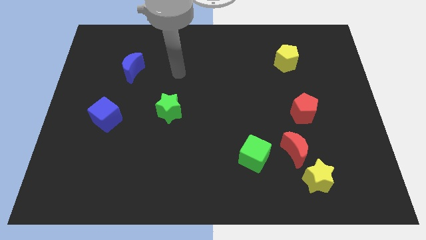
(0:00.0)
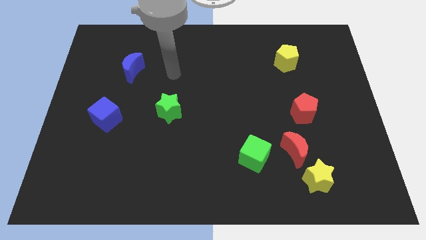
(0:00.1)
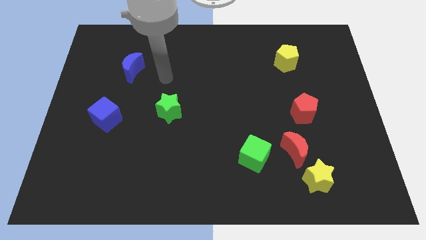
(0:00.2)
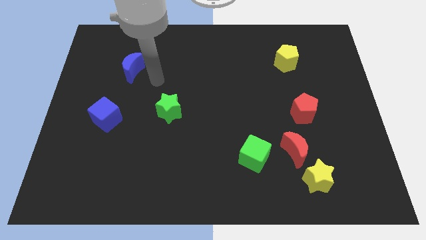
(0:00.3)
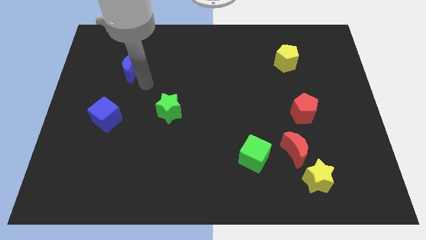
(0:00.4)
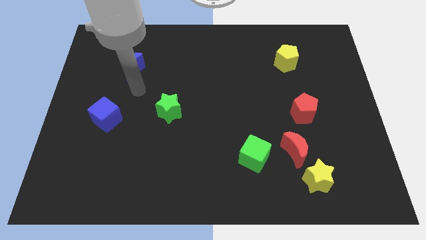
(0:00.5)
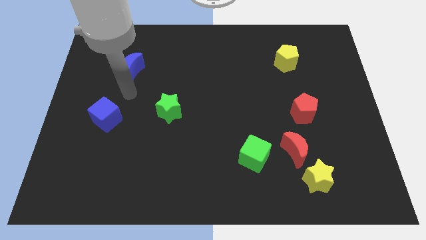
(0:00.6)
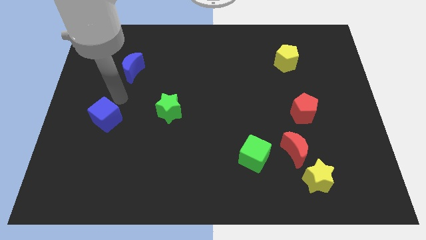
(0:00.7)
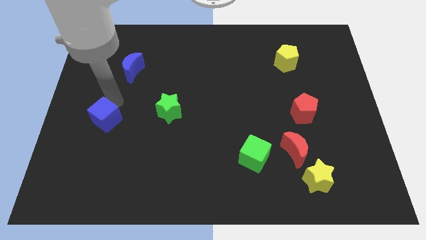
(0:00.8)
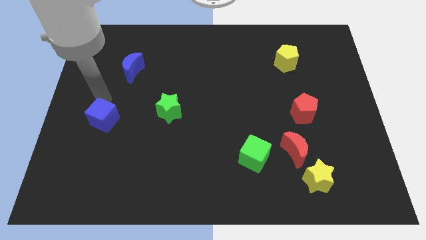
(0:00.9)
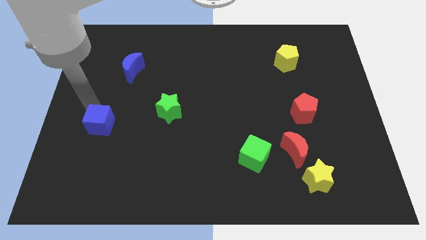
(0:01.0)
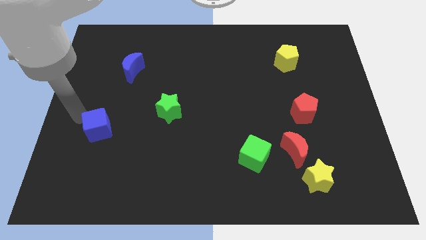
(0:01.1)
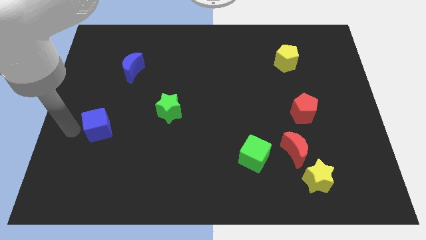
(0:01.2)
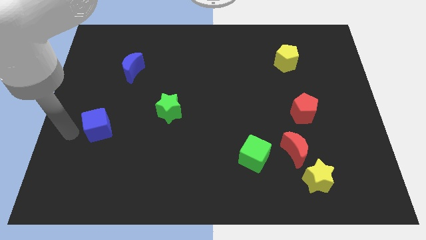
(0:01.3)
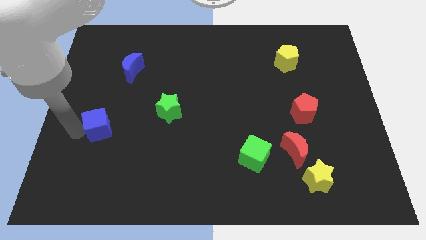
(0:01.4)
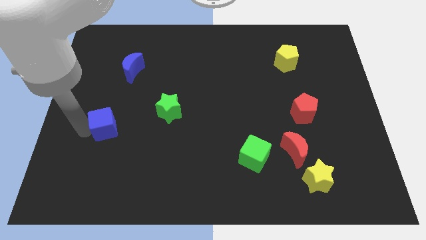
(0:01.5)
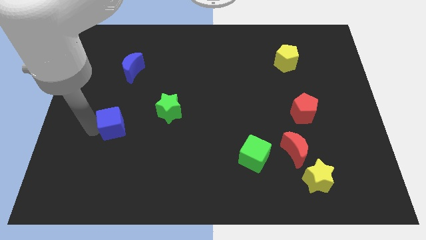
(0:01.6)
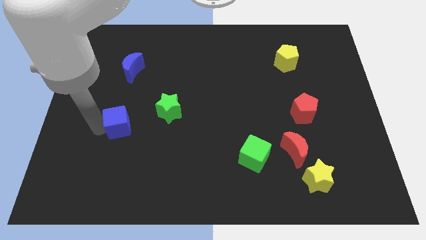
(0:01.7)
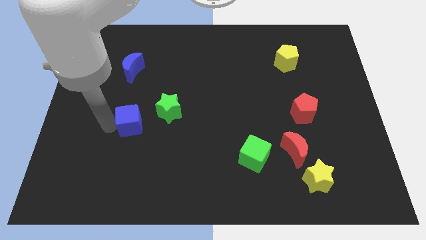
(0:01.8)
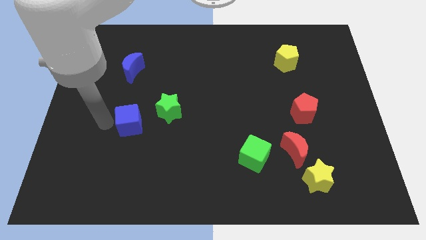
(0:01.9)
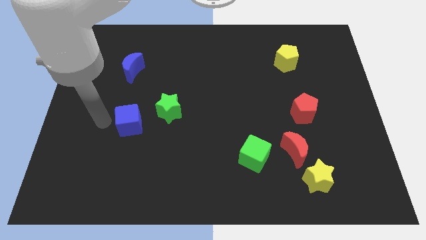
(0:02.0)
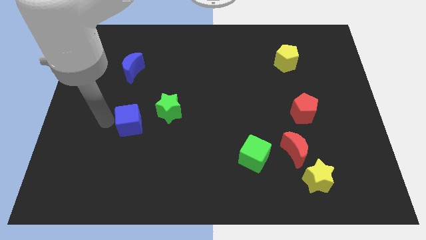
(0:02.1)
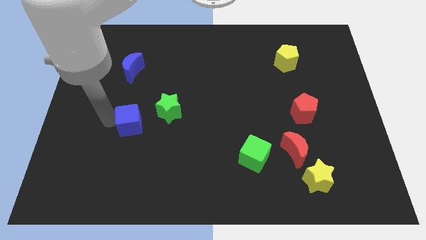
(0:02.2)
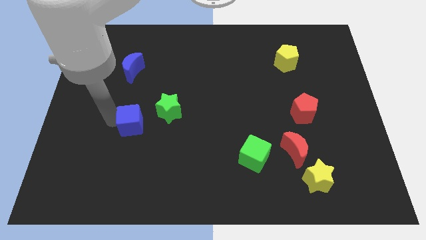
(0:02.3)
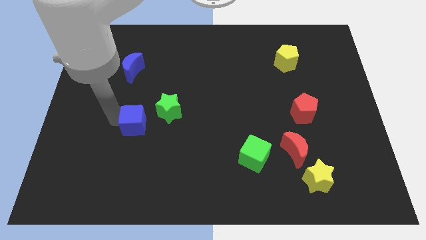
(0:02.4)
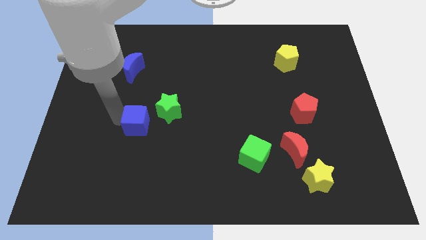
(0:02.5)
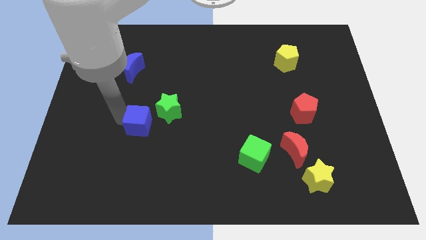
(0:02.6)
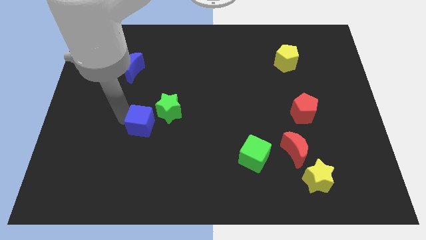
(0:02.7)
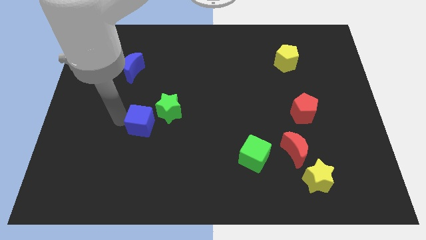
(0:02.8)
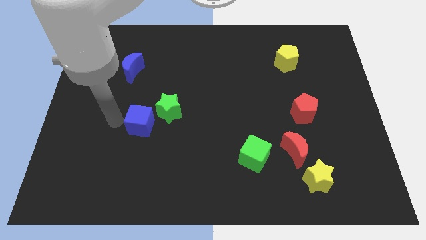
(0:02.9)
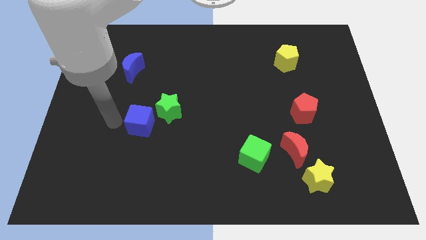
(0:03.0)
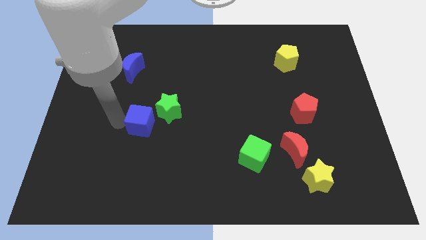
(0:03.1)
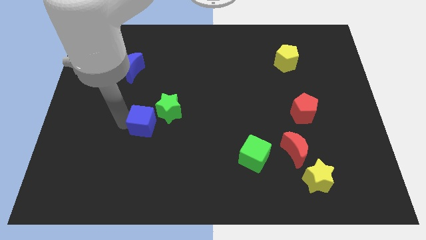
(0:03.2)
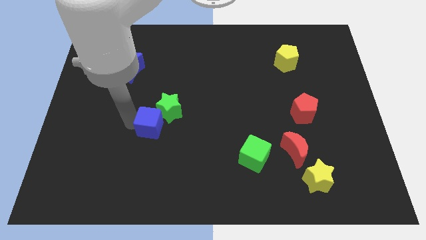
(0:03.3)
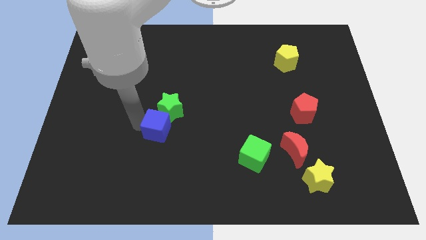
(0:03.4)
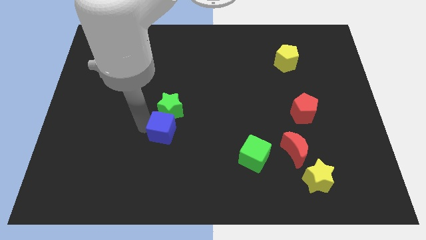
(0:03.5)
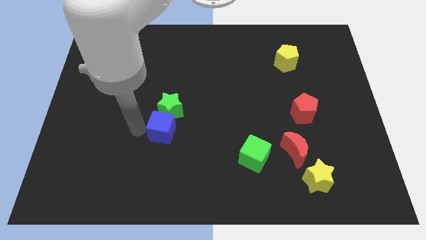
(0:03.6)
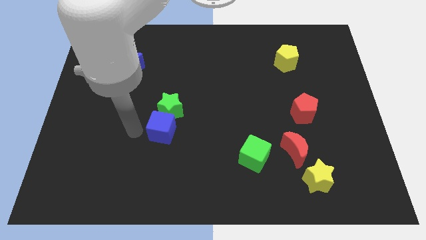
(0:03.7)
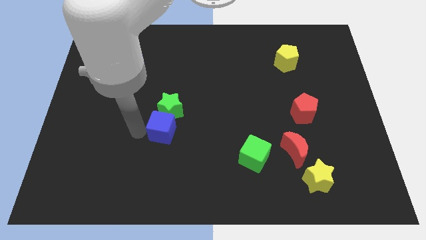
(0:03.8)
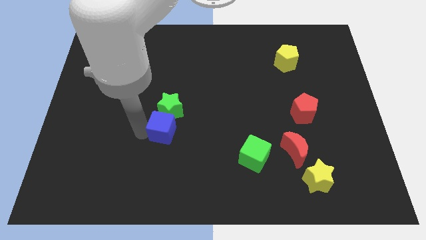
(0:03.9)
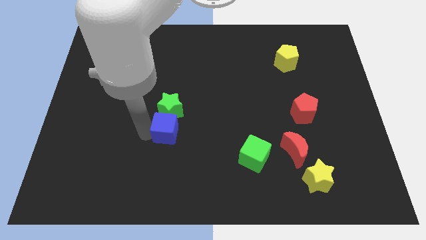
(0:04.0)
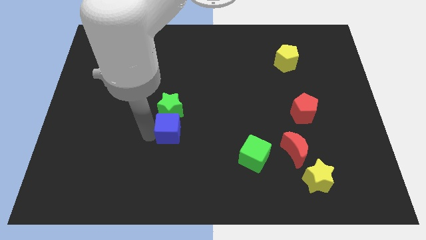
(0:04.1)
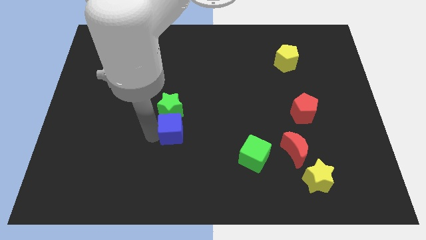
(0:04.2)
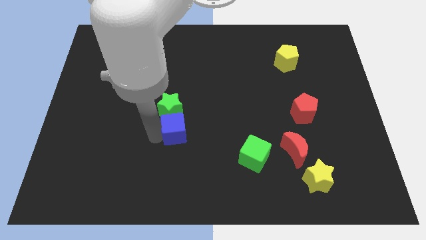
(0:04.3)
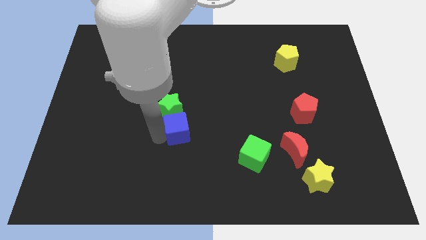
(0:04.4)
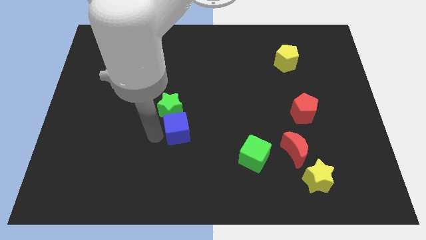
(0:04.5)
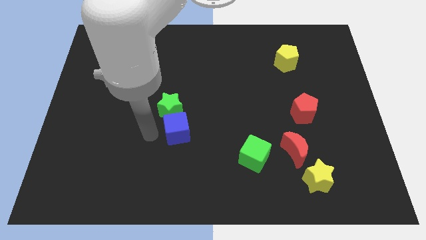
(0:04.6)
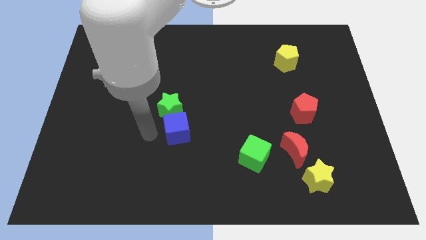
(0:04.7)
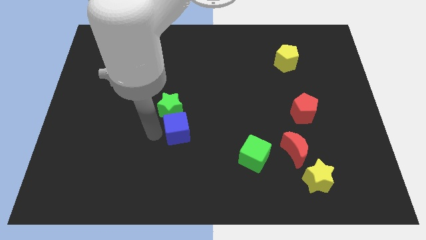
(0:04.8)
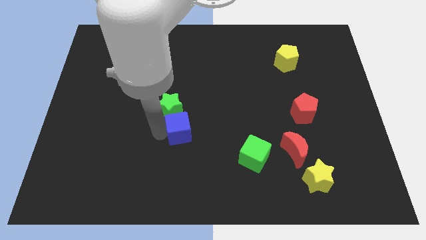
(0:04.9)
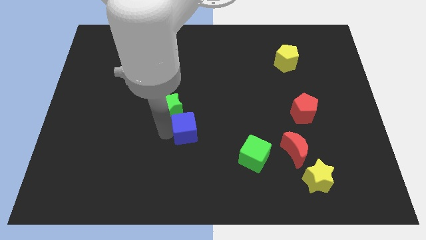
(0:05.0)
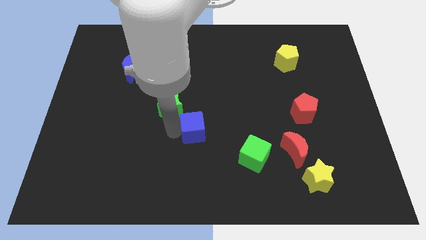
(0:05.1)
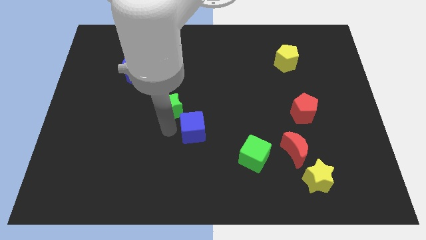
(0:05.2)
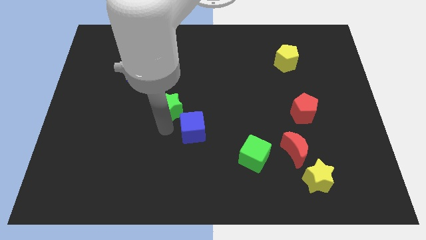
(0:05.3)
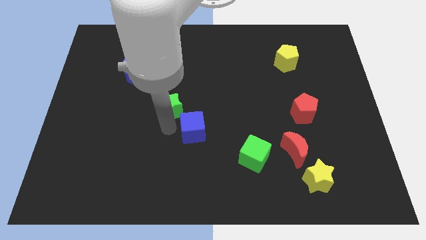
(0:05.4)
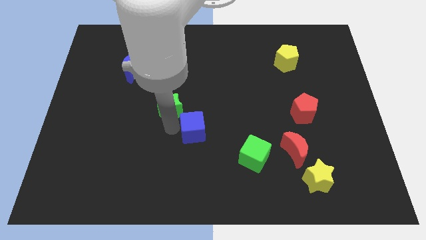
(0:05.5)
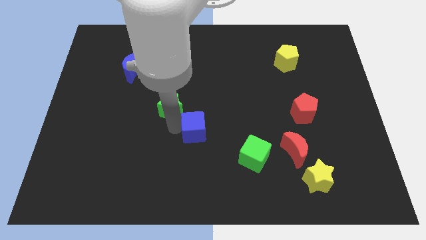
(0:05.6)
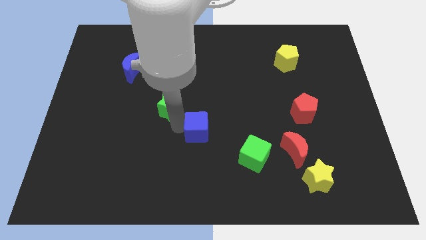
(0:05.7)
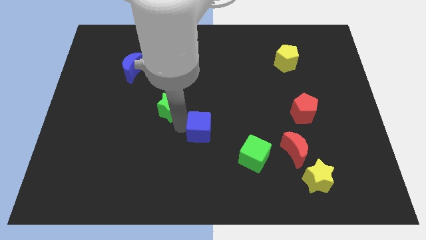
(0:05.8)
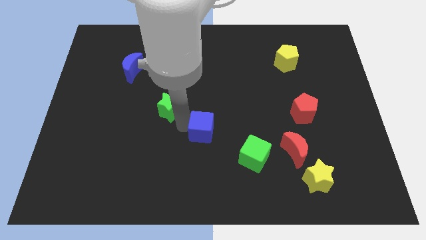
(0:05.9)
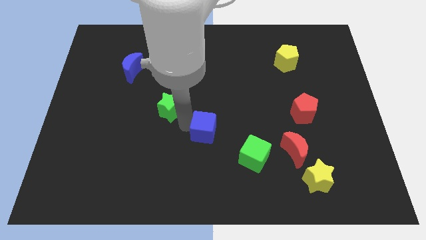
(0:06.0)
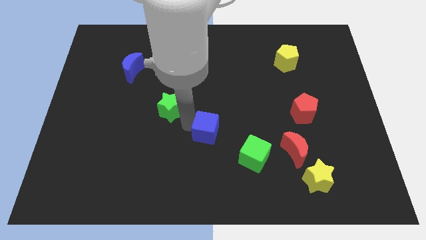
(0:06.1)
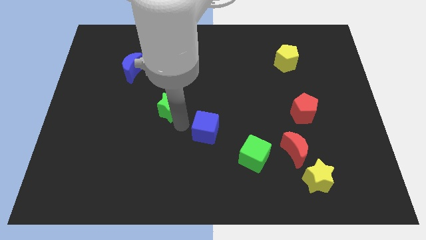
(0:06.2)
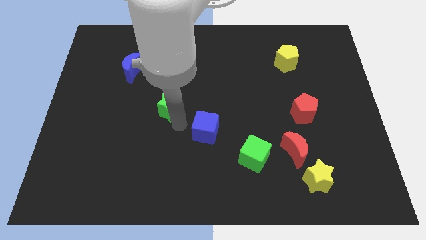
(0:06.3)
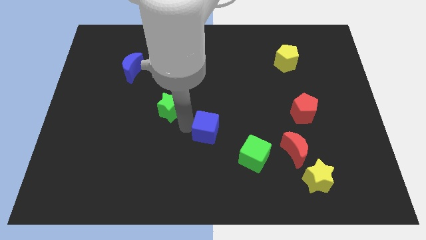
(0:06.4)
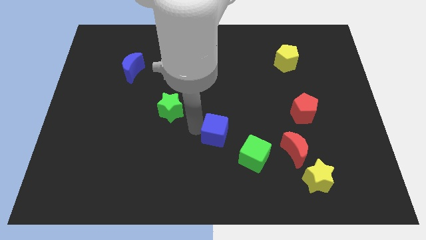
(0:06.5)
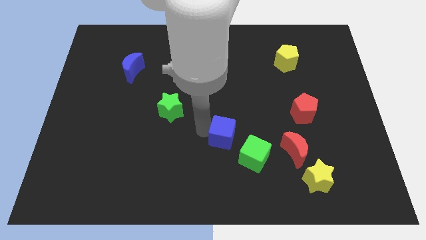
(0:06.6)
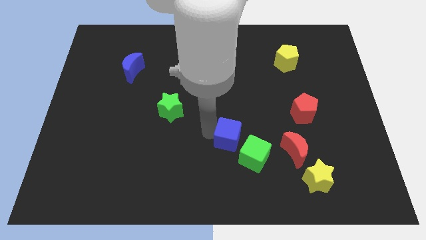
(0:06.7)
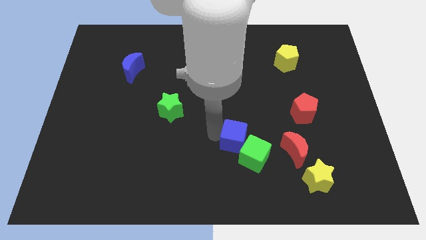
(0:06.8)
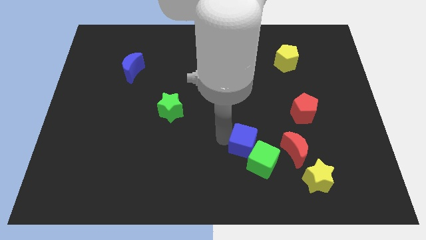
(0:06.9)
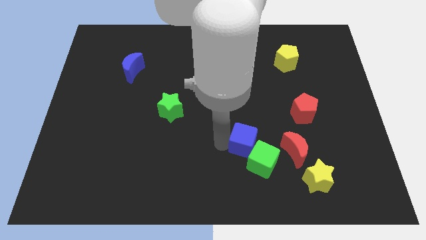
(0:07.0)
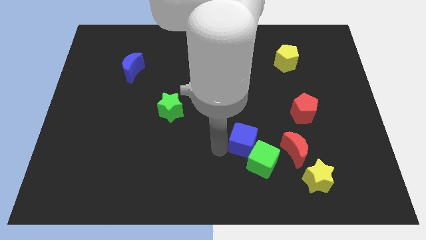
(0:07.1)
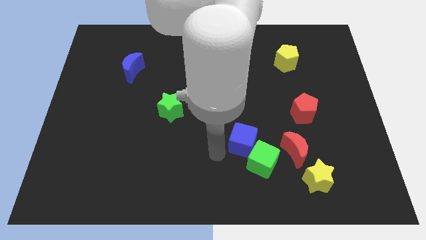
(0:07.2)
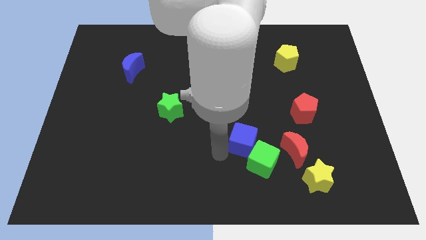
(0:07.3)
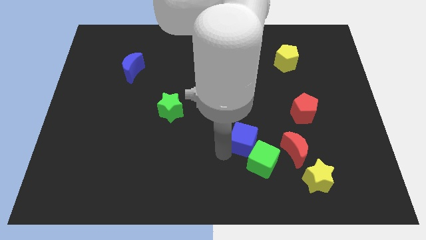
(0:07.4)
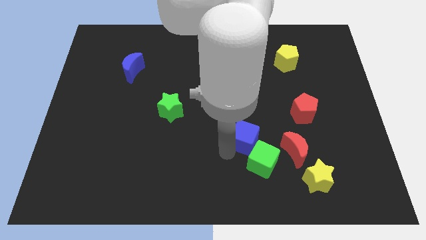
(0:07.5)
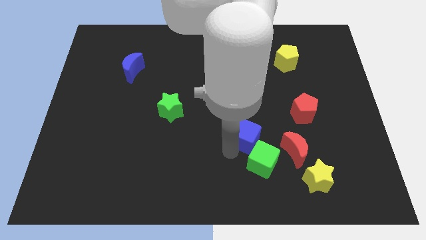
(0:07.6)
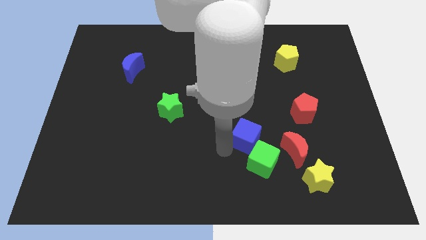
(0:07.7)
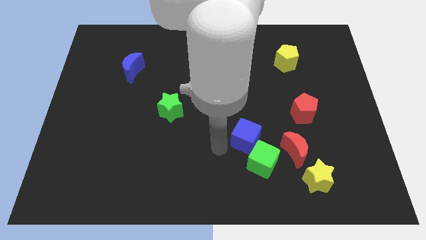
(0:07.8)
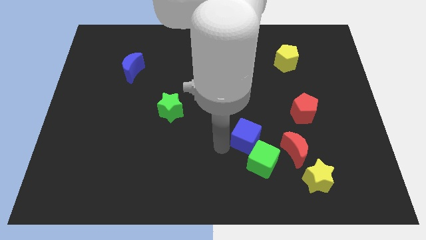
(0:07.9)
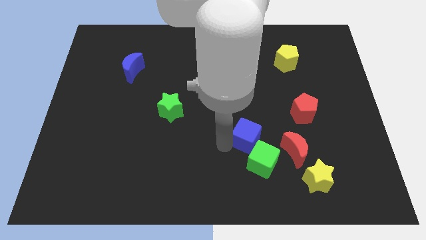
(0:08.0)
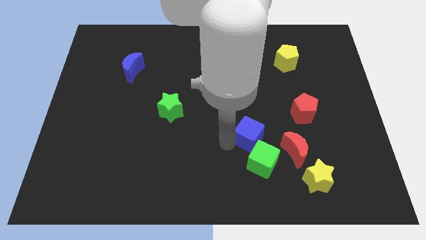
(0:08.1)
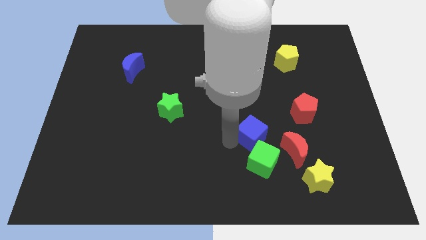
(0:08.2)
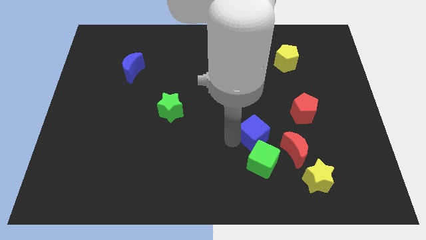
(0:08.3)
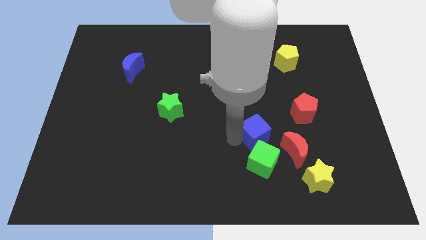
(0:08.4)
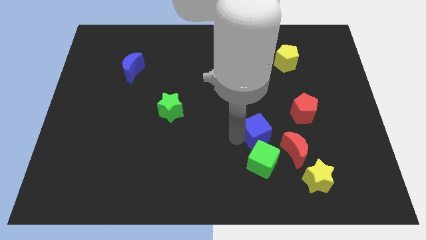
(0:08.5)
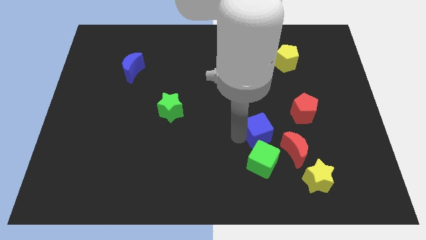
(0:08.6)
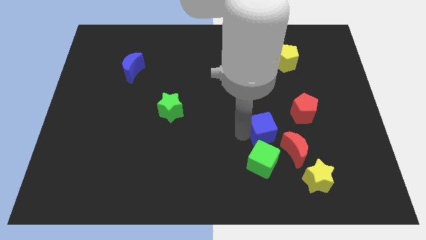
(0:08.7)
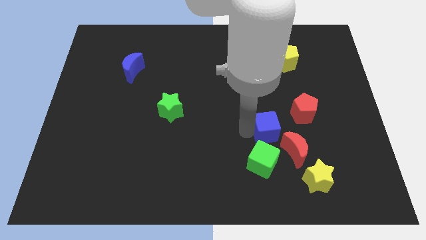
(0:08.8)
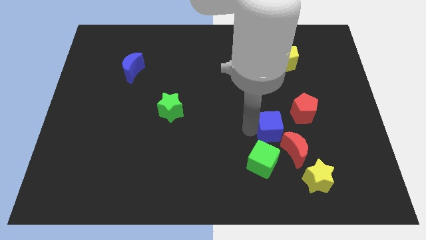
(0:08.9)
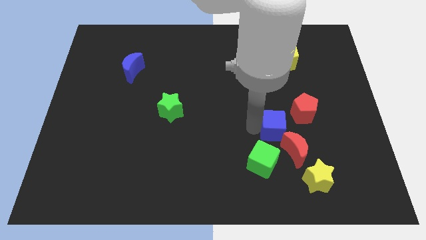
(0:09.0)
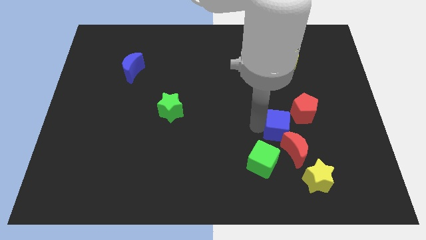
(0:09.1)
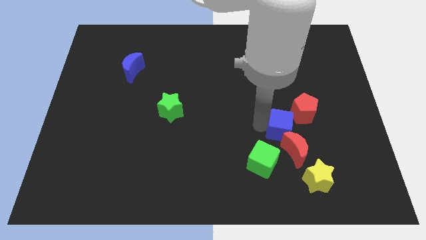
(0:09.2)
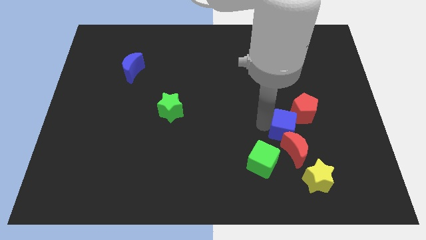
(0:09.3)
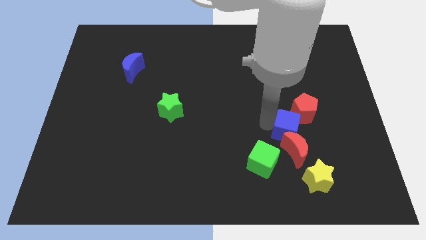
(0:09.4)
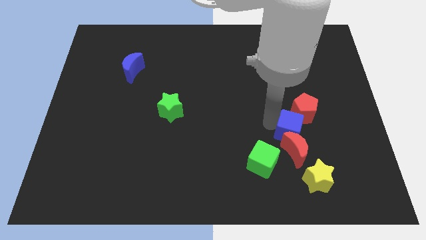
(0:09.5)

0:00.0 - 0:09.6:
put the blue cube above the yellow star
